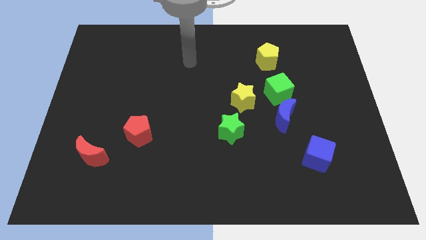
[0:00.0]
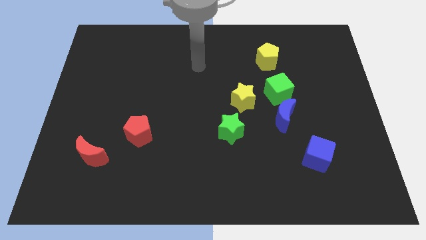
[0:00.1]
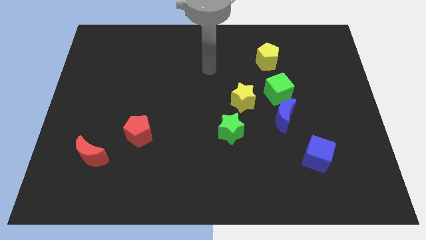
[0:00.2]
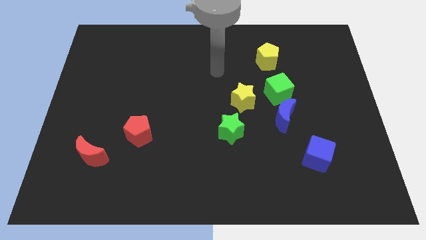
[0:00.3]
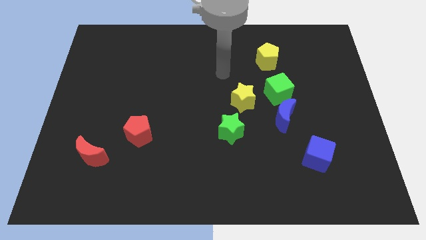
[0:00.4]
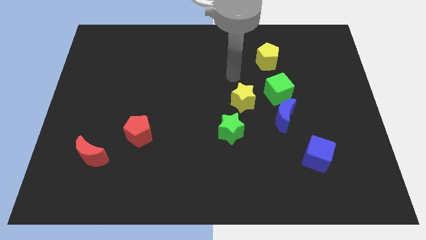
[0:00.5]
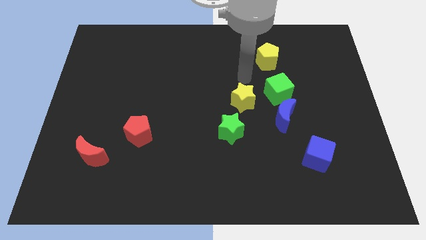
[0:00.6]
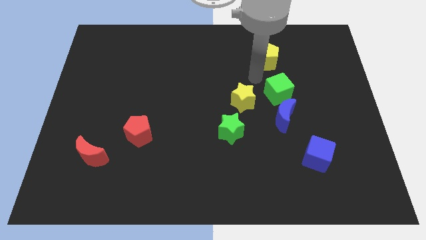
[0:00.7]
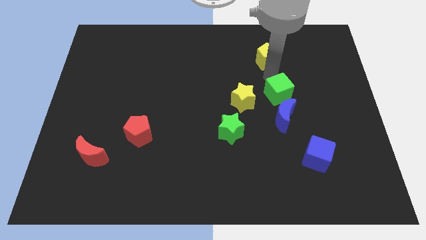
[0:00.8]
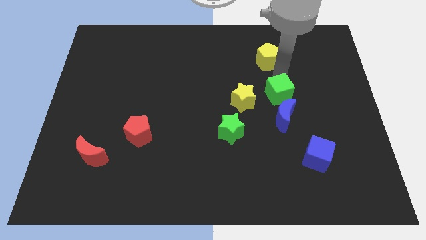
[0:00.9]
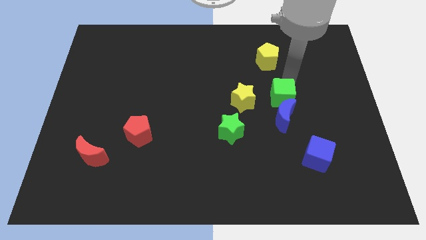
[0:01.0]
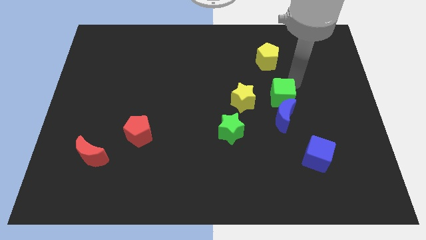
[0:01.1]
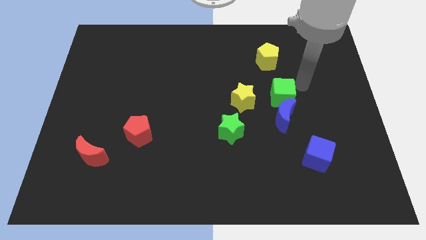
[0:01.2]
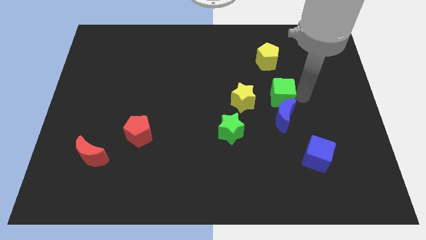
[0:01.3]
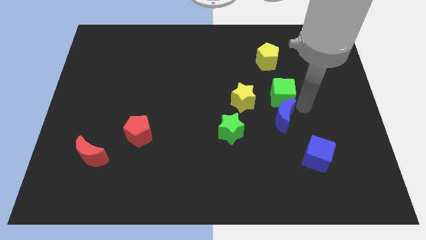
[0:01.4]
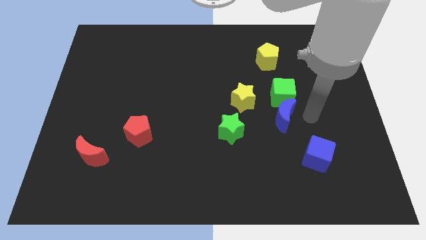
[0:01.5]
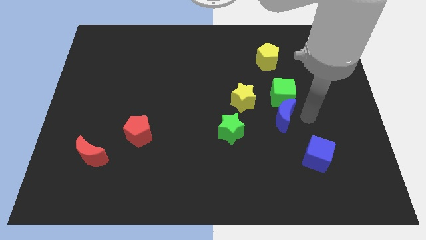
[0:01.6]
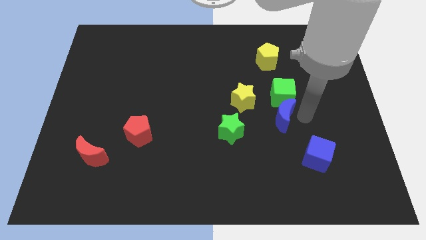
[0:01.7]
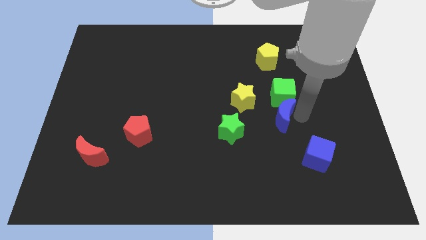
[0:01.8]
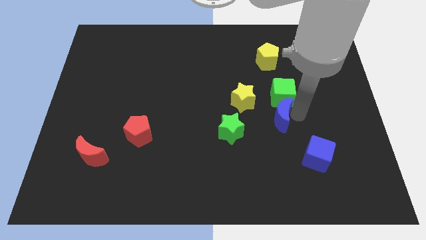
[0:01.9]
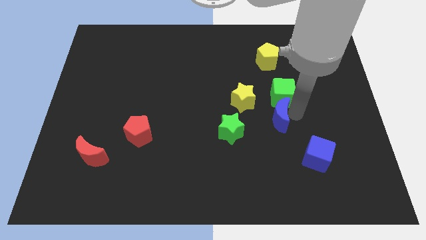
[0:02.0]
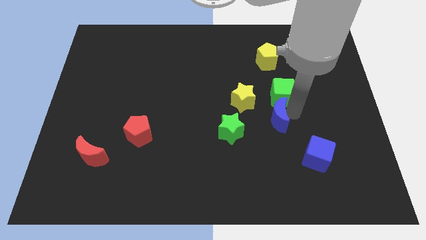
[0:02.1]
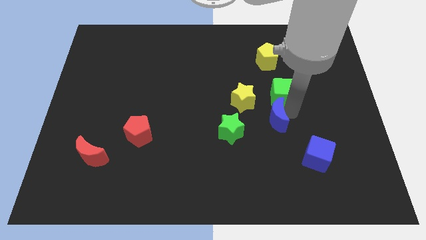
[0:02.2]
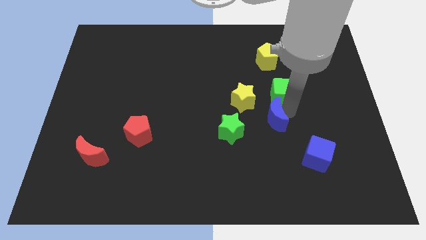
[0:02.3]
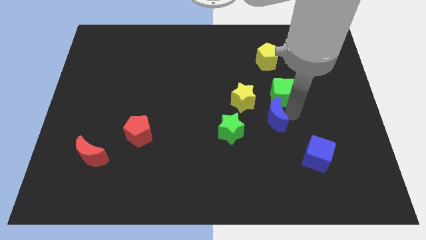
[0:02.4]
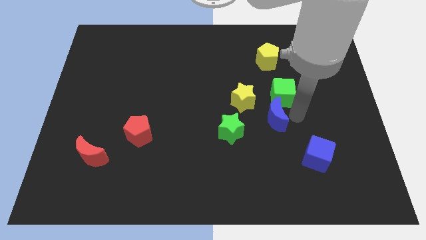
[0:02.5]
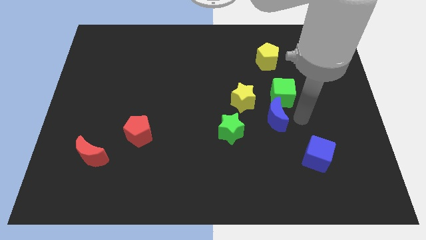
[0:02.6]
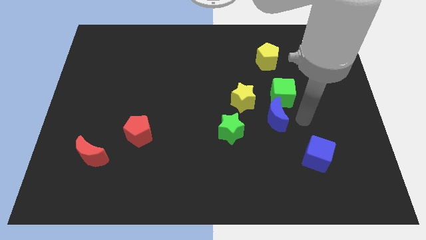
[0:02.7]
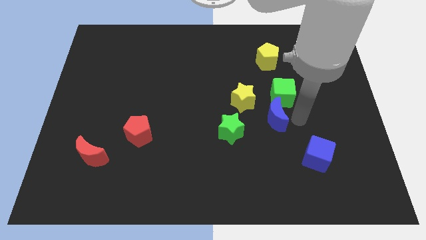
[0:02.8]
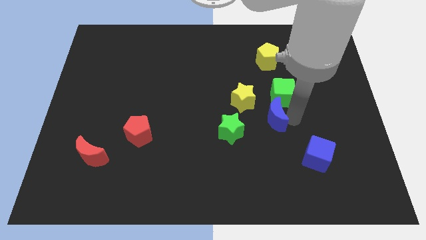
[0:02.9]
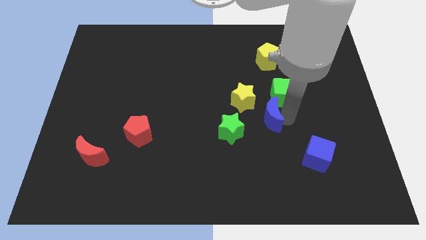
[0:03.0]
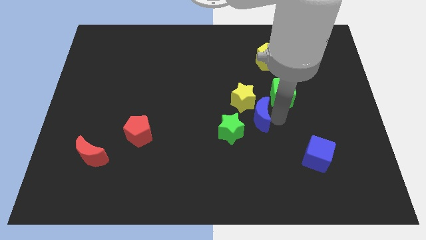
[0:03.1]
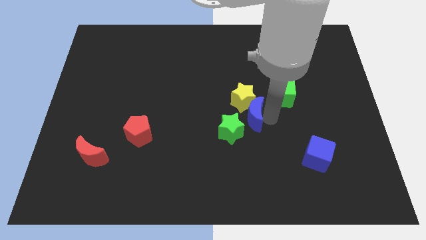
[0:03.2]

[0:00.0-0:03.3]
push the blue moon to the left a bit

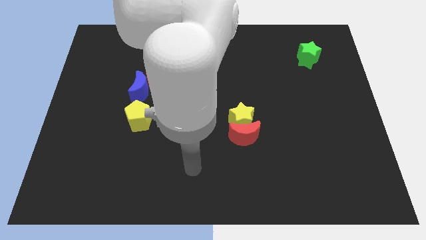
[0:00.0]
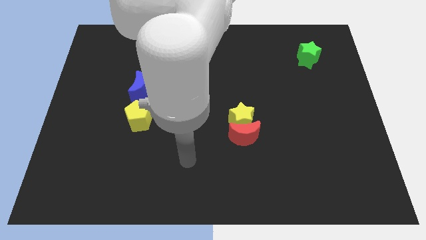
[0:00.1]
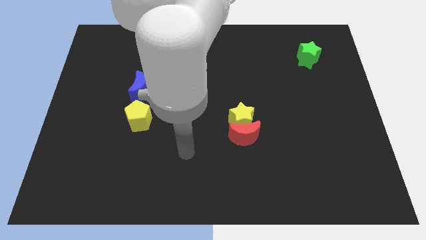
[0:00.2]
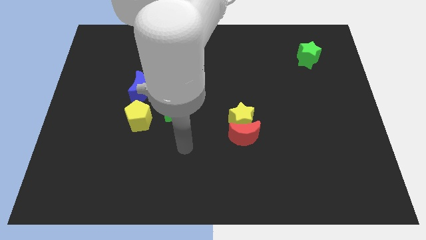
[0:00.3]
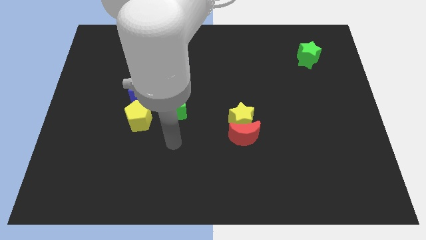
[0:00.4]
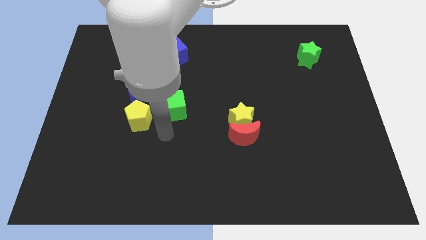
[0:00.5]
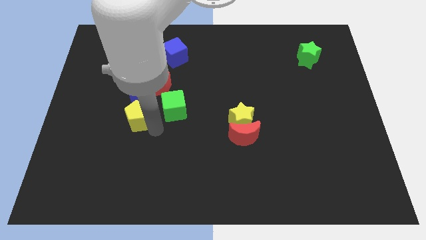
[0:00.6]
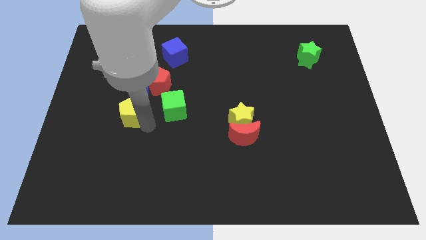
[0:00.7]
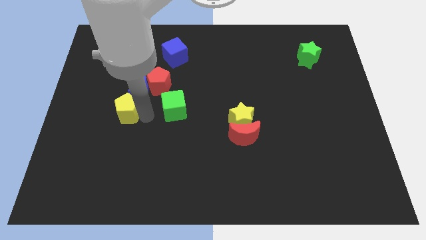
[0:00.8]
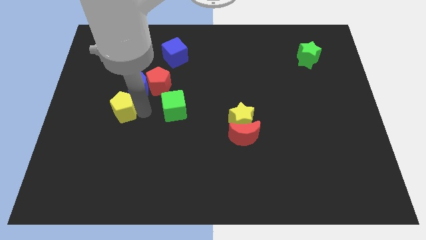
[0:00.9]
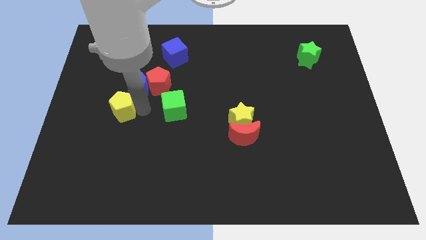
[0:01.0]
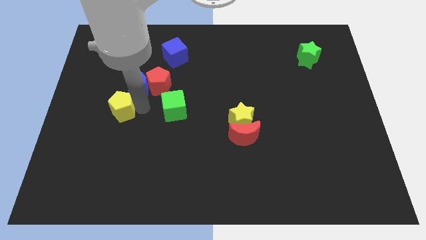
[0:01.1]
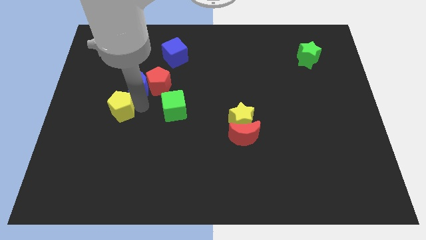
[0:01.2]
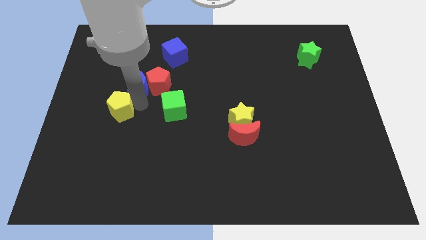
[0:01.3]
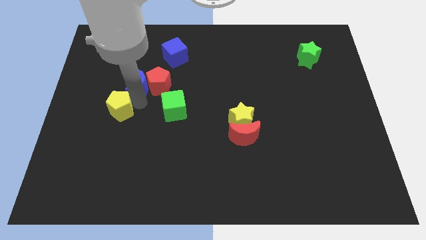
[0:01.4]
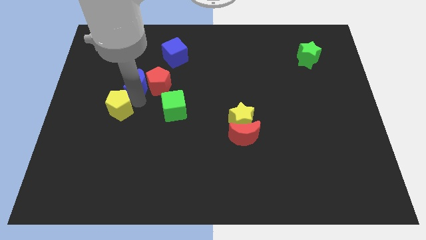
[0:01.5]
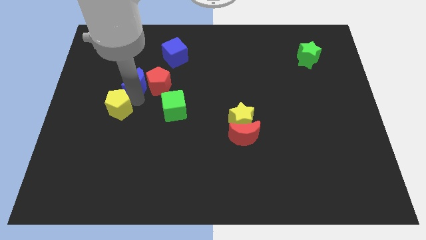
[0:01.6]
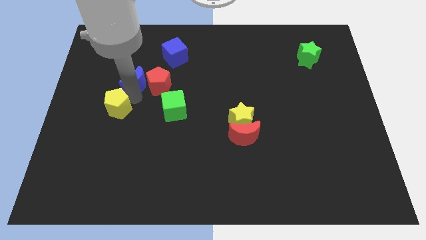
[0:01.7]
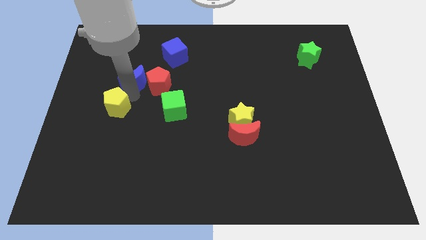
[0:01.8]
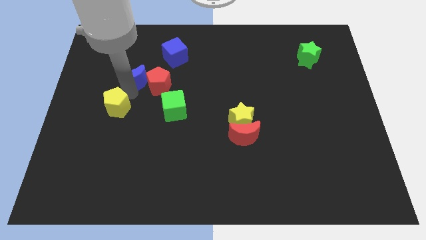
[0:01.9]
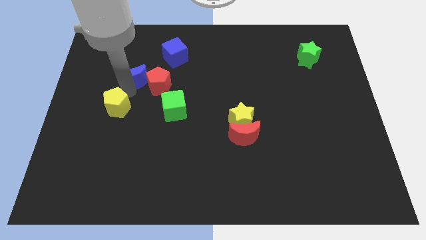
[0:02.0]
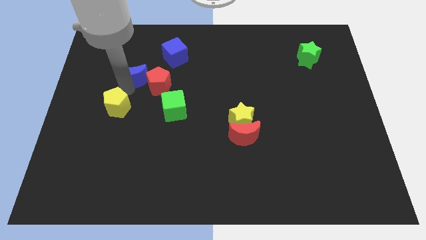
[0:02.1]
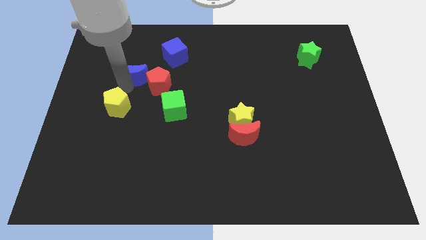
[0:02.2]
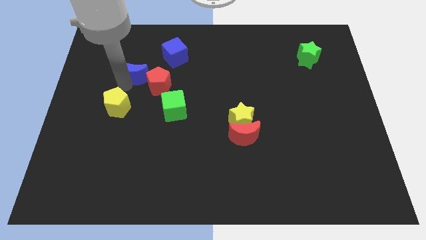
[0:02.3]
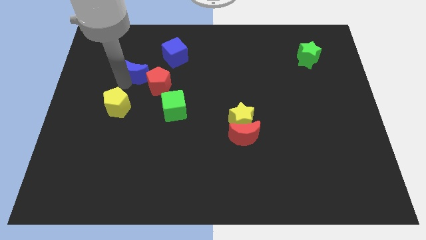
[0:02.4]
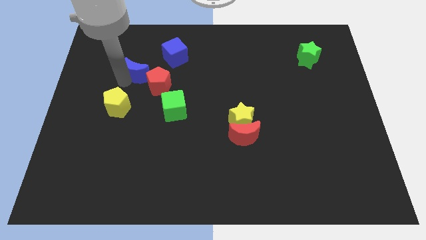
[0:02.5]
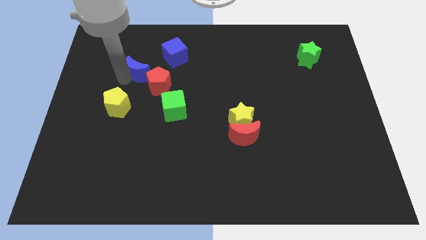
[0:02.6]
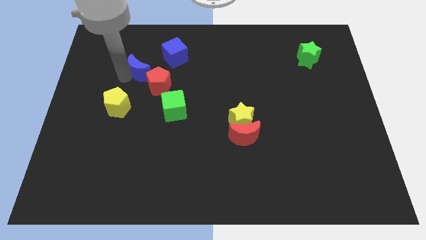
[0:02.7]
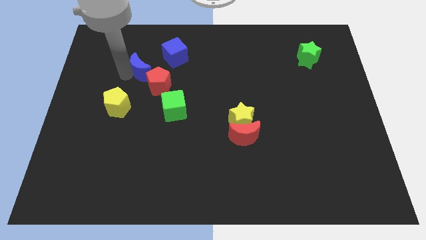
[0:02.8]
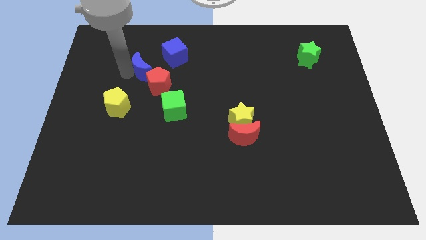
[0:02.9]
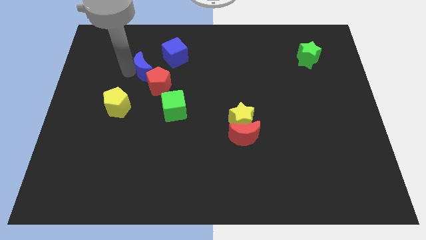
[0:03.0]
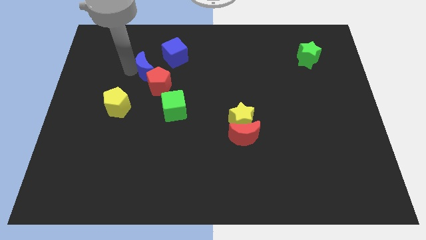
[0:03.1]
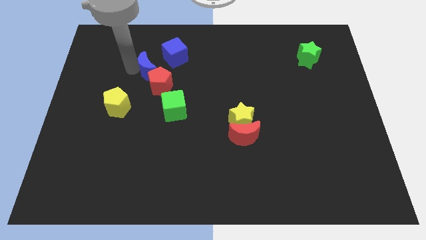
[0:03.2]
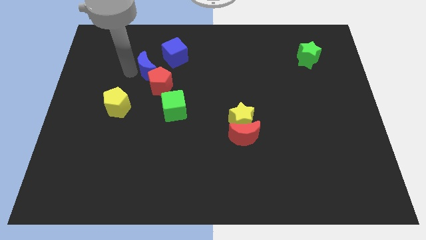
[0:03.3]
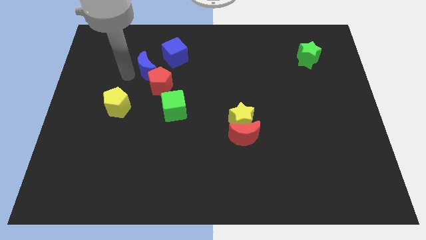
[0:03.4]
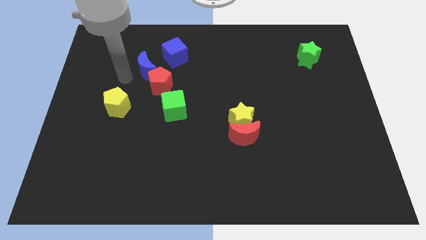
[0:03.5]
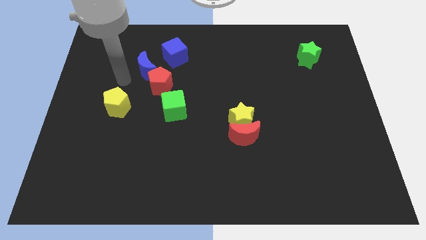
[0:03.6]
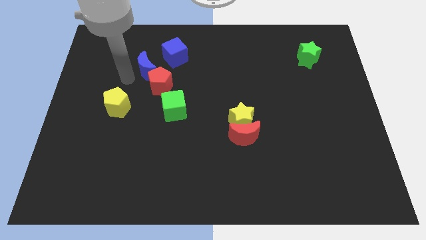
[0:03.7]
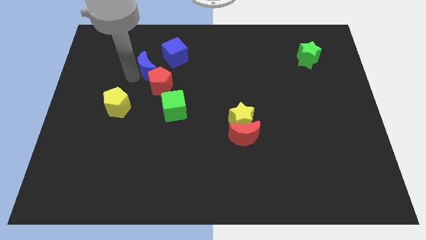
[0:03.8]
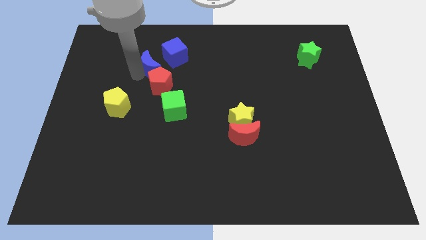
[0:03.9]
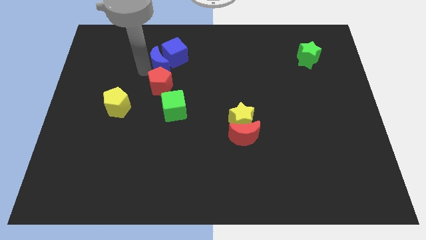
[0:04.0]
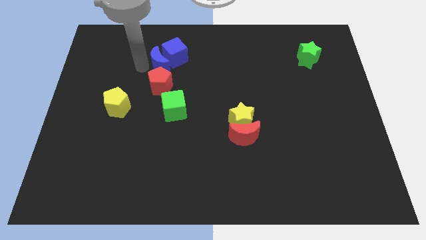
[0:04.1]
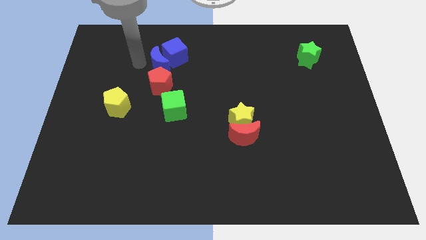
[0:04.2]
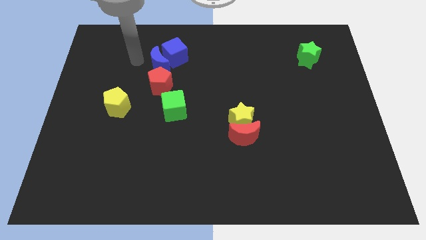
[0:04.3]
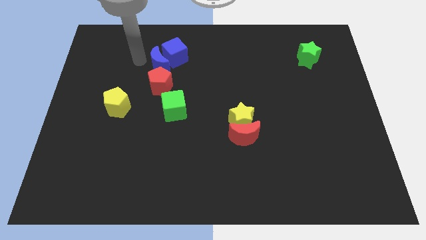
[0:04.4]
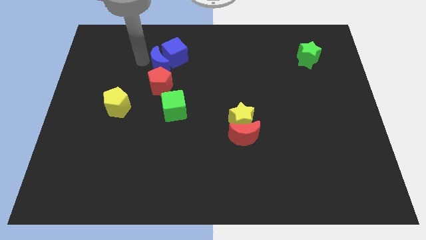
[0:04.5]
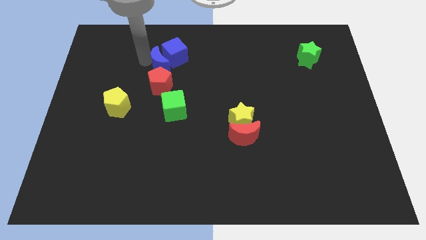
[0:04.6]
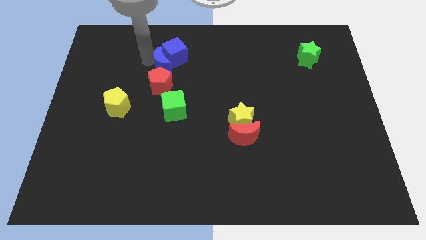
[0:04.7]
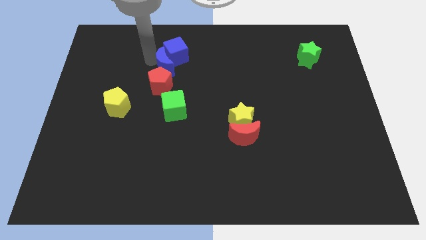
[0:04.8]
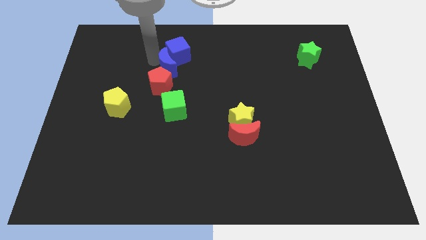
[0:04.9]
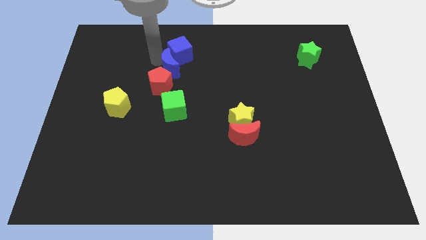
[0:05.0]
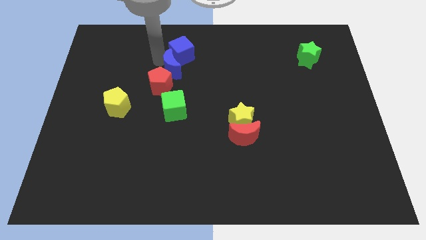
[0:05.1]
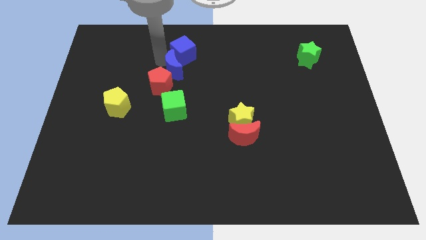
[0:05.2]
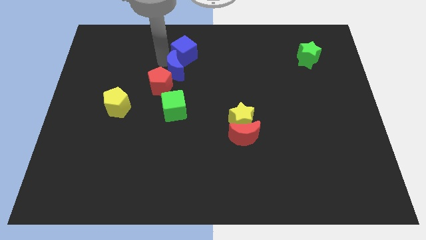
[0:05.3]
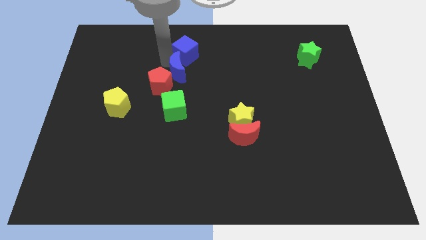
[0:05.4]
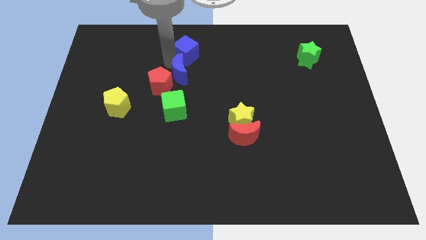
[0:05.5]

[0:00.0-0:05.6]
slightly push the blue moon right
